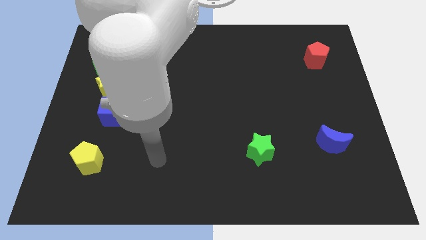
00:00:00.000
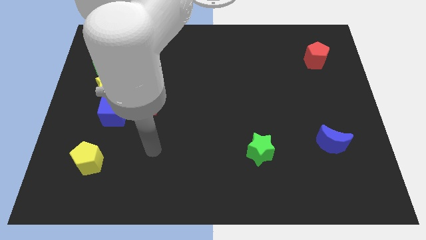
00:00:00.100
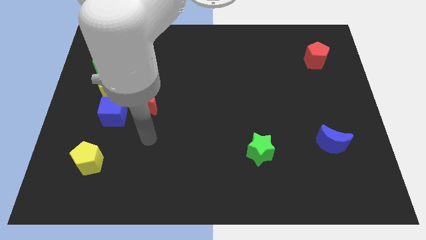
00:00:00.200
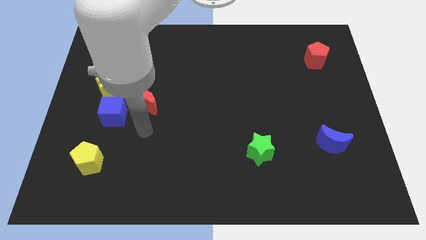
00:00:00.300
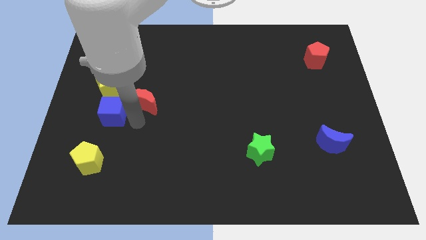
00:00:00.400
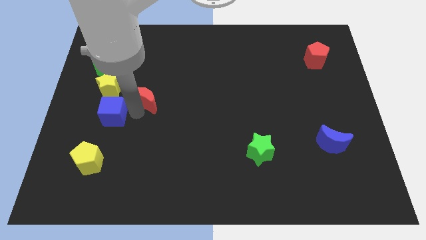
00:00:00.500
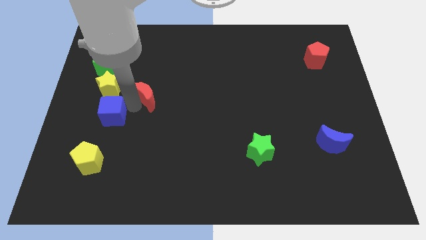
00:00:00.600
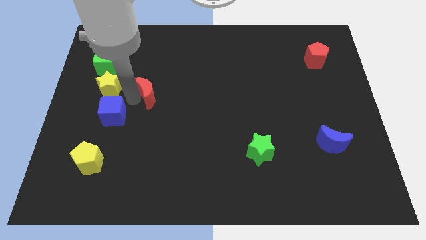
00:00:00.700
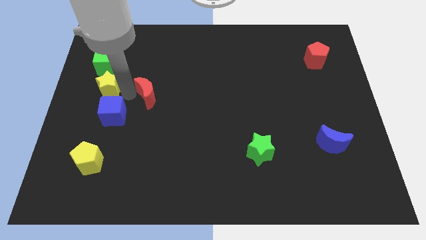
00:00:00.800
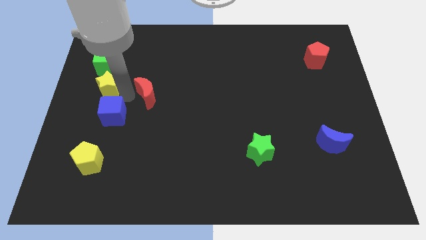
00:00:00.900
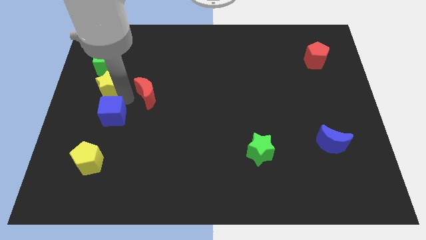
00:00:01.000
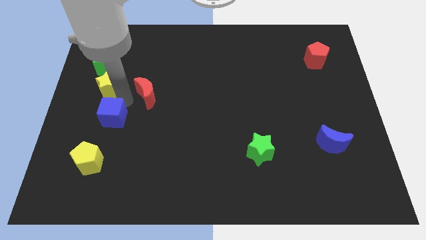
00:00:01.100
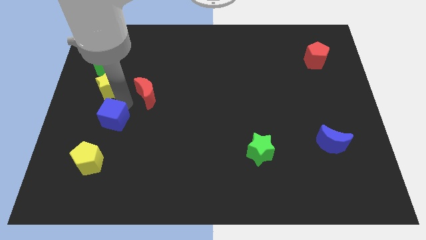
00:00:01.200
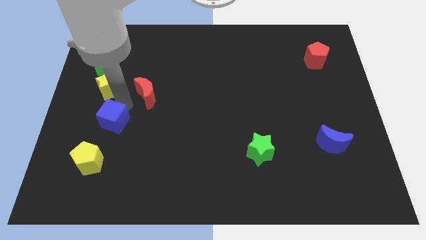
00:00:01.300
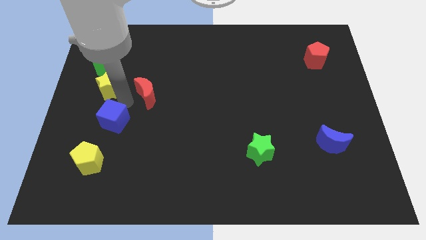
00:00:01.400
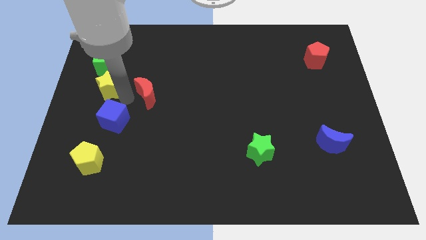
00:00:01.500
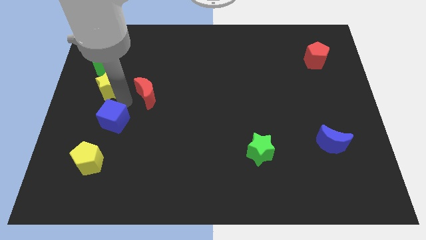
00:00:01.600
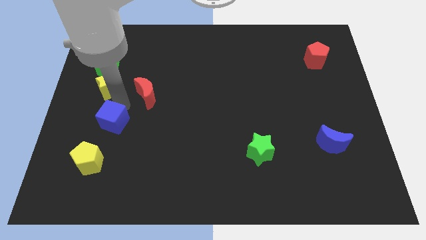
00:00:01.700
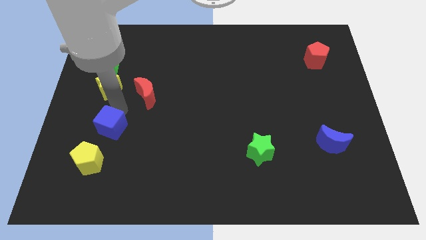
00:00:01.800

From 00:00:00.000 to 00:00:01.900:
pull the blue cube apart from the red moon and yellow star

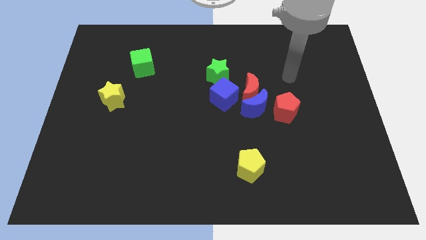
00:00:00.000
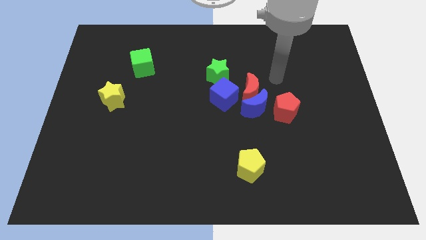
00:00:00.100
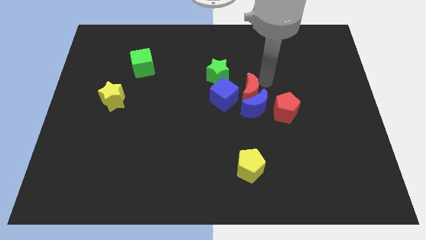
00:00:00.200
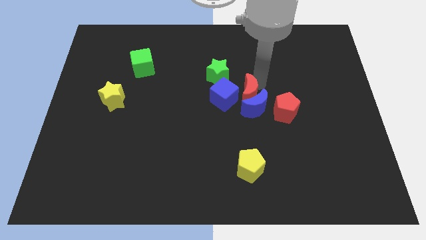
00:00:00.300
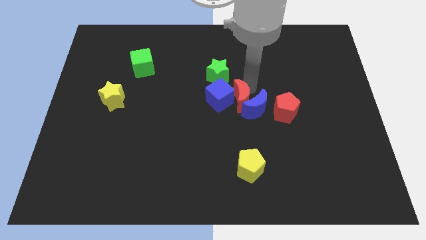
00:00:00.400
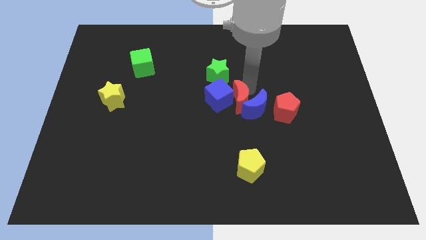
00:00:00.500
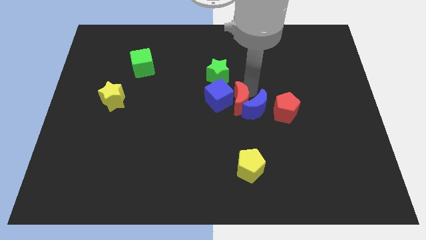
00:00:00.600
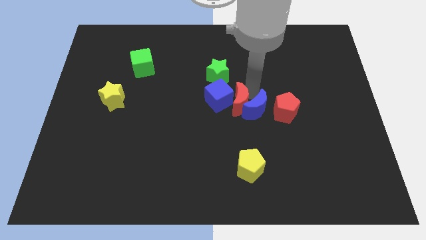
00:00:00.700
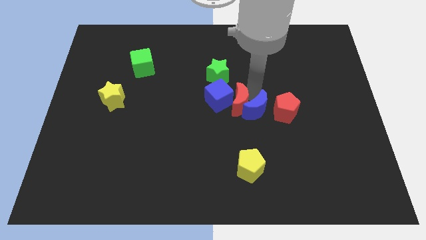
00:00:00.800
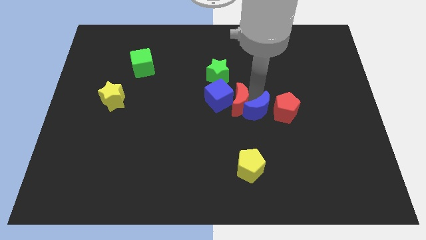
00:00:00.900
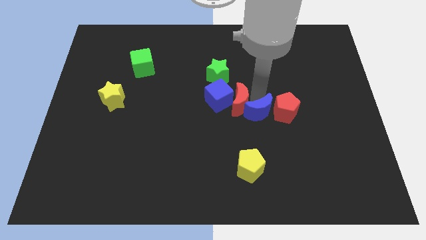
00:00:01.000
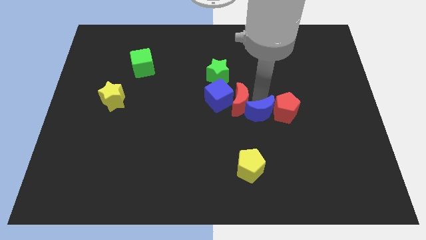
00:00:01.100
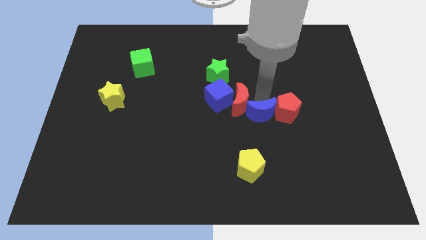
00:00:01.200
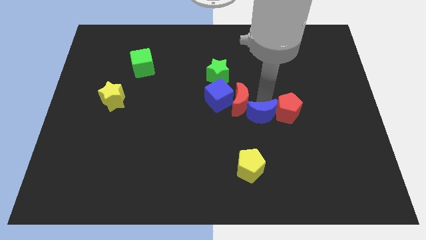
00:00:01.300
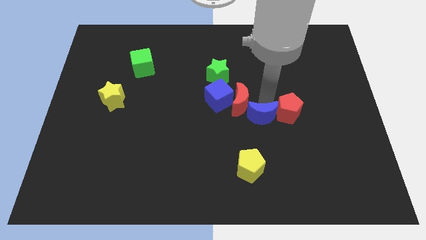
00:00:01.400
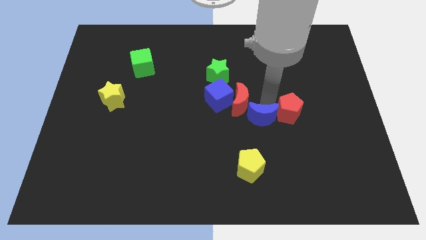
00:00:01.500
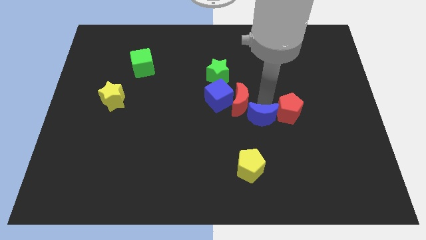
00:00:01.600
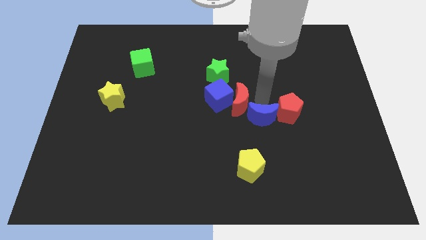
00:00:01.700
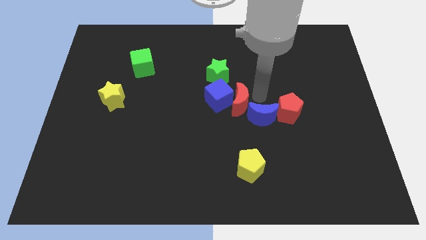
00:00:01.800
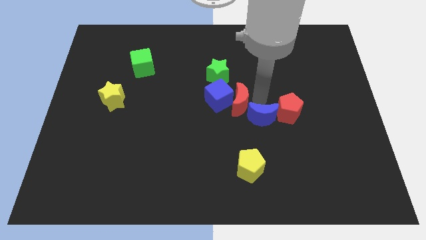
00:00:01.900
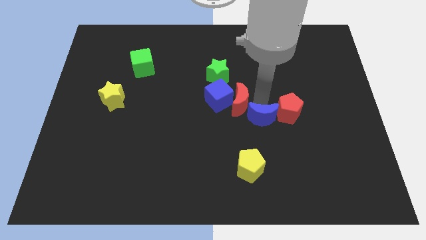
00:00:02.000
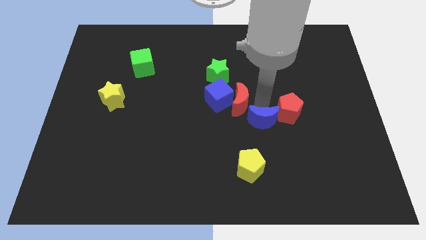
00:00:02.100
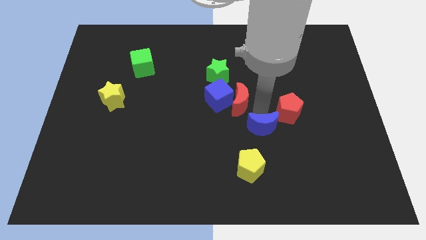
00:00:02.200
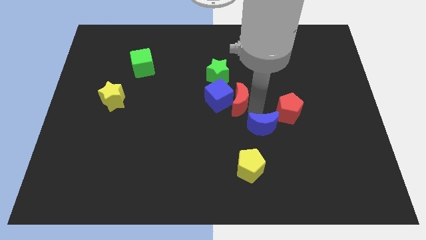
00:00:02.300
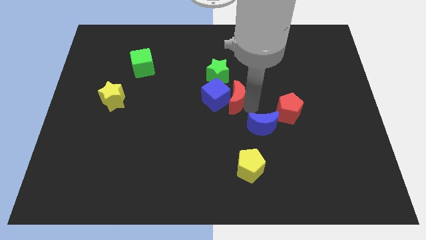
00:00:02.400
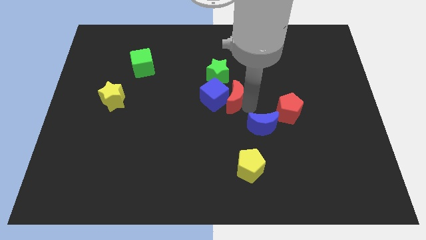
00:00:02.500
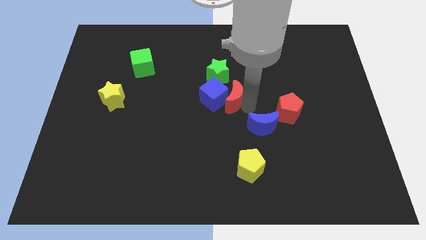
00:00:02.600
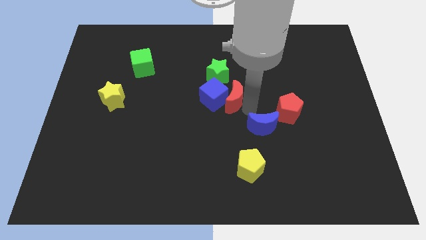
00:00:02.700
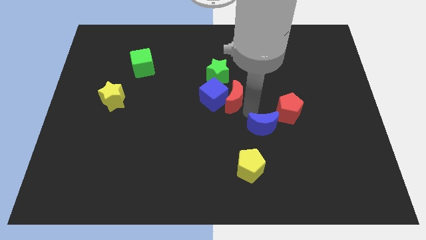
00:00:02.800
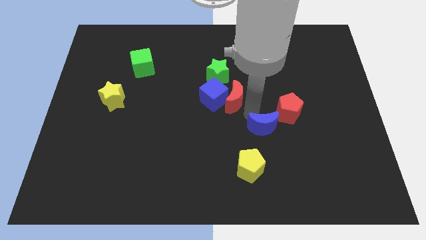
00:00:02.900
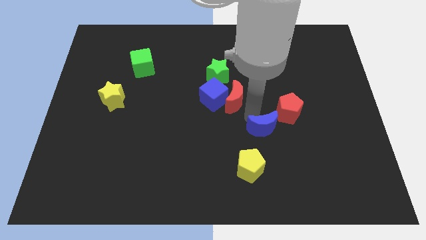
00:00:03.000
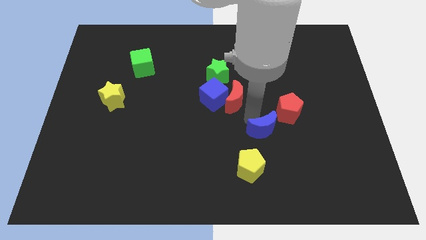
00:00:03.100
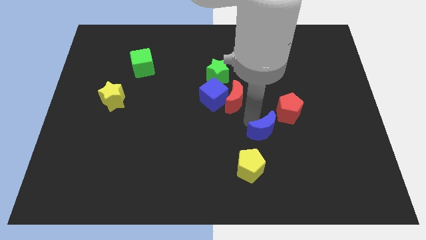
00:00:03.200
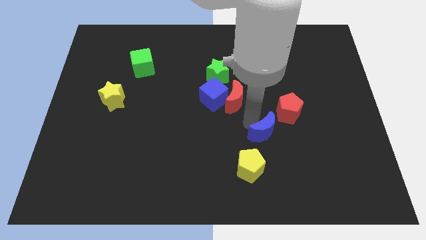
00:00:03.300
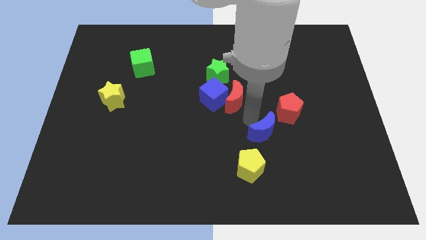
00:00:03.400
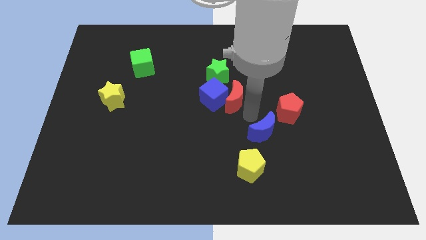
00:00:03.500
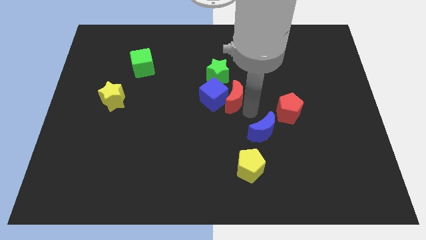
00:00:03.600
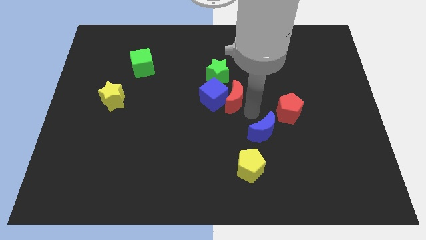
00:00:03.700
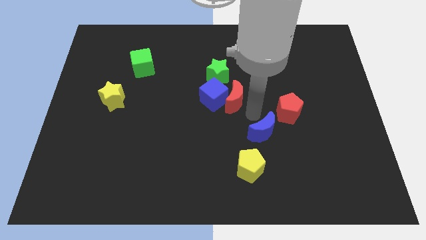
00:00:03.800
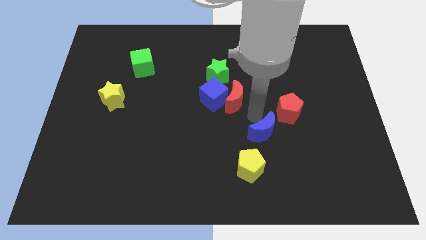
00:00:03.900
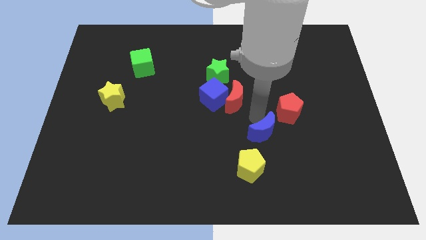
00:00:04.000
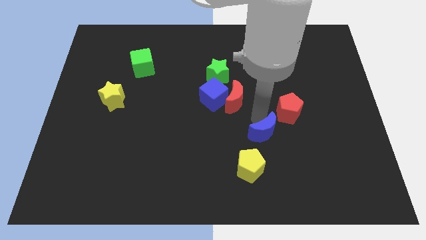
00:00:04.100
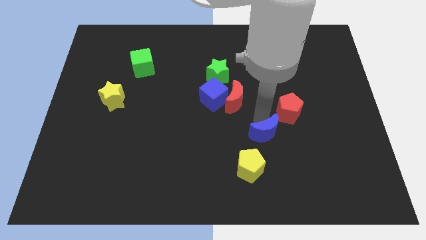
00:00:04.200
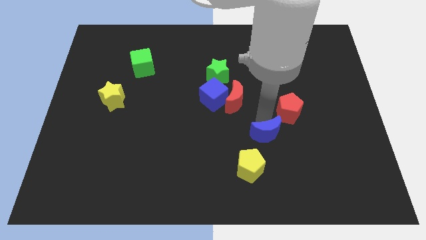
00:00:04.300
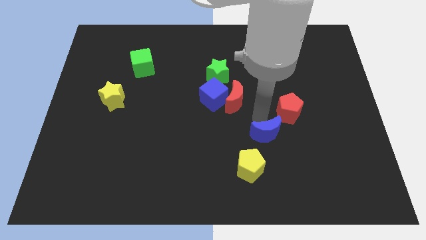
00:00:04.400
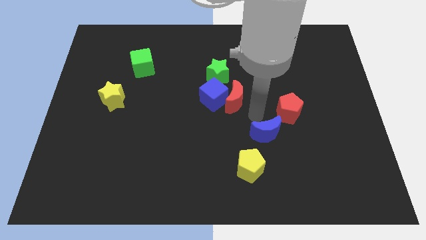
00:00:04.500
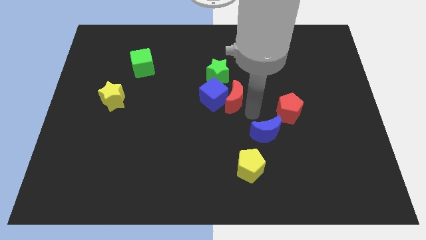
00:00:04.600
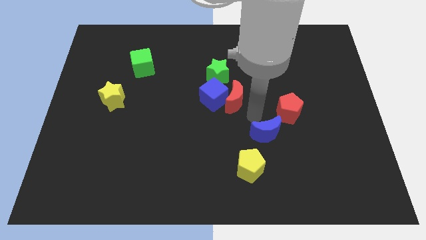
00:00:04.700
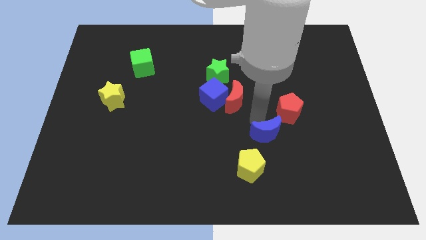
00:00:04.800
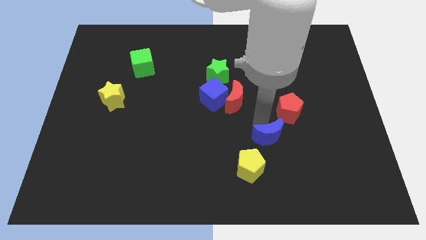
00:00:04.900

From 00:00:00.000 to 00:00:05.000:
pull the blue moon apart from the red moon, red pentagon, and blue cube

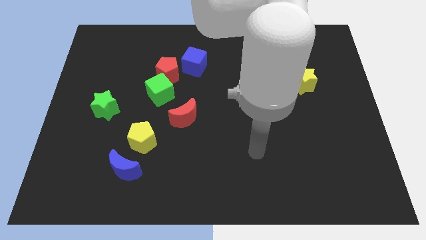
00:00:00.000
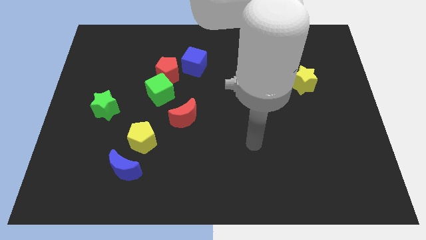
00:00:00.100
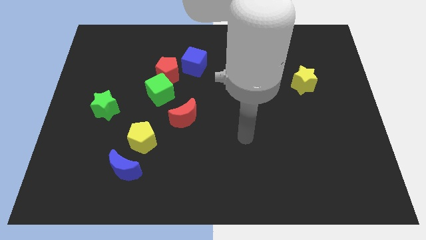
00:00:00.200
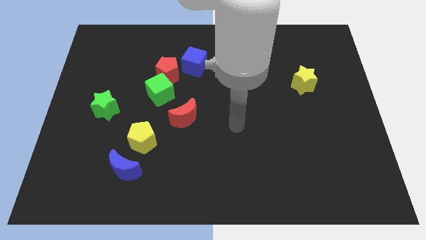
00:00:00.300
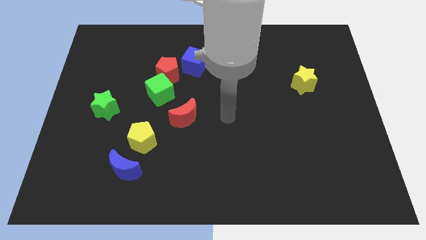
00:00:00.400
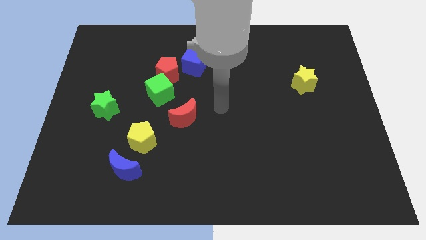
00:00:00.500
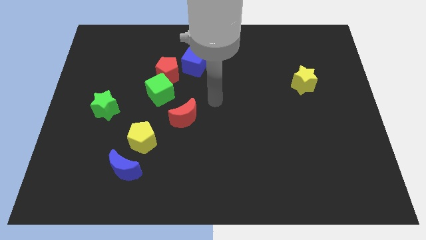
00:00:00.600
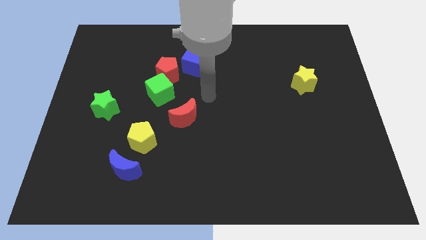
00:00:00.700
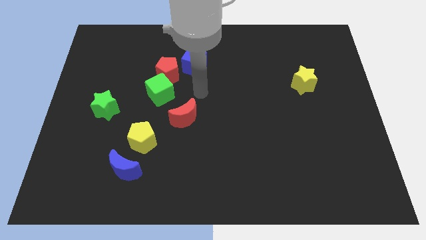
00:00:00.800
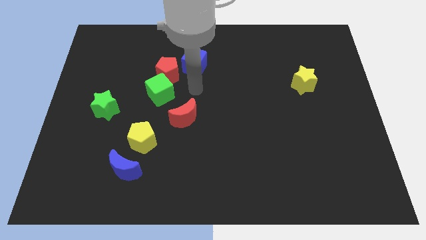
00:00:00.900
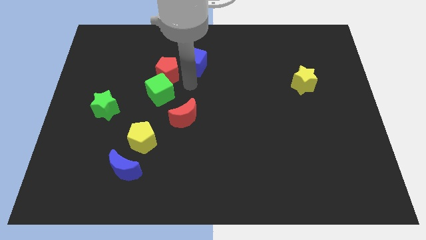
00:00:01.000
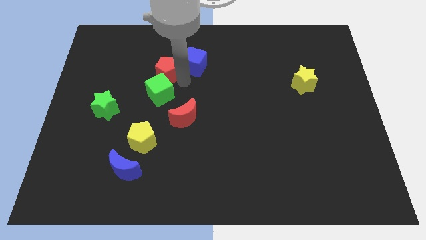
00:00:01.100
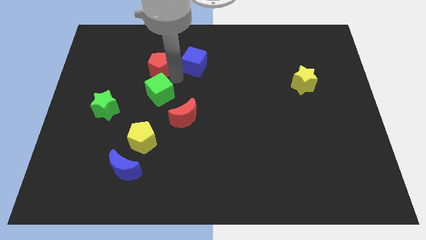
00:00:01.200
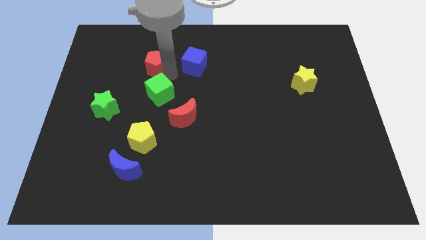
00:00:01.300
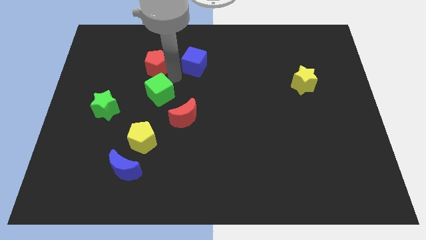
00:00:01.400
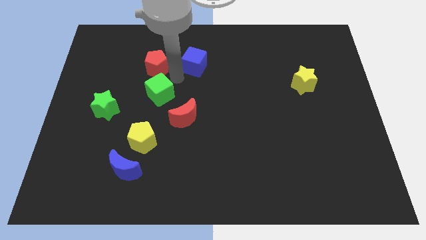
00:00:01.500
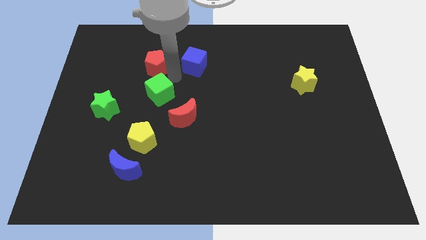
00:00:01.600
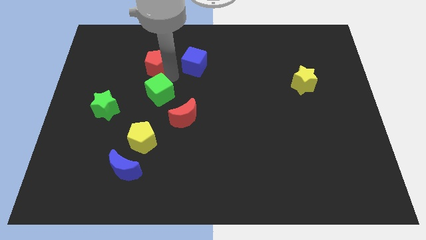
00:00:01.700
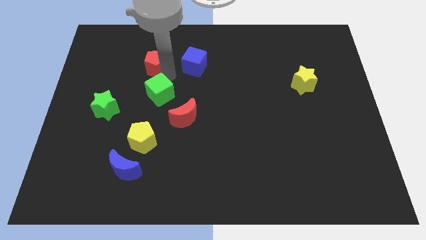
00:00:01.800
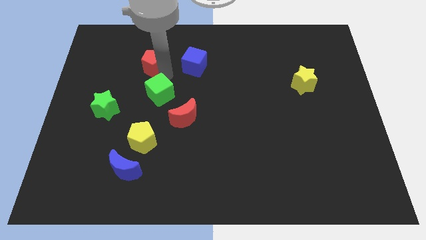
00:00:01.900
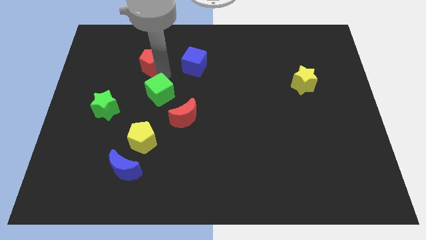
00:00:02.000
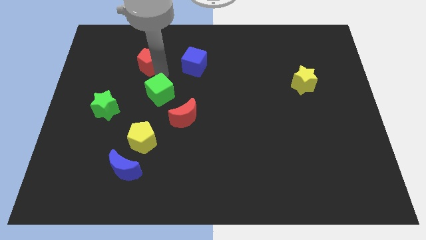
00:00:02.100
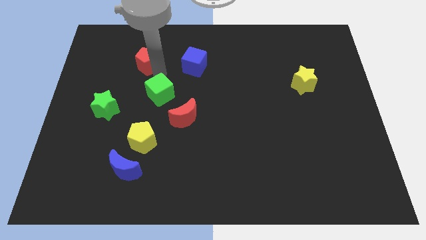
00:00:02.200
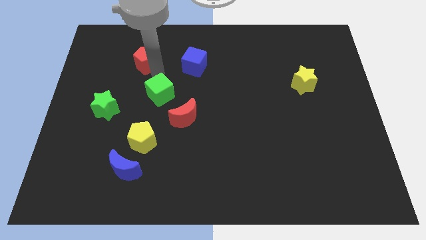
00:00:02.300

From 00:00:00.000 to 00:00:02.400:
move the red pentagon away from the green cube and blue cube
